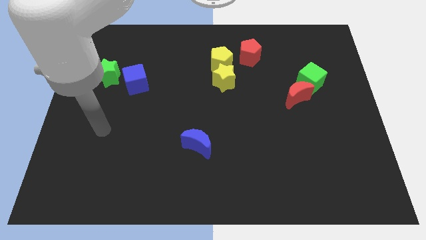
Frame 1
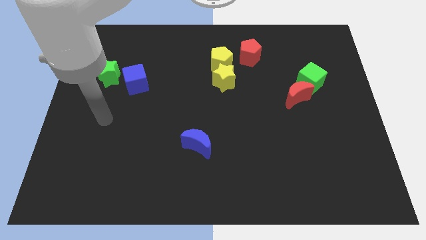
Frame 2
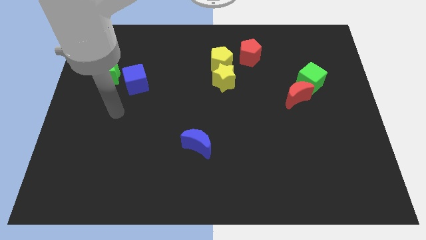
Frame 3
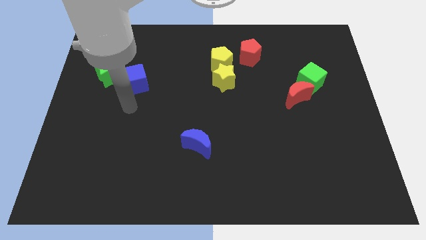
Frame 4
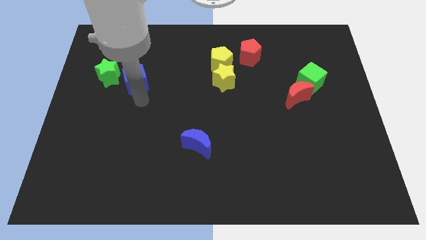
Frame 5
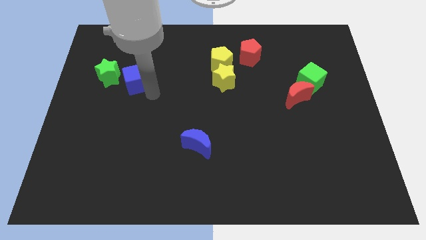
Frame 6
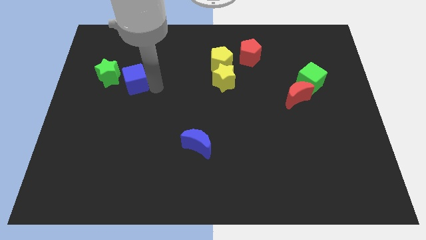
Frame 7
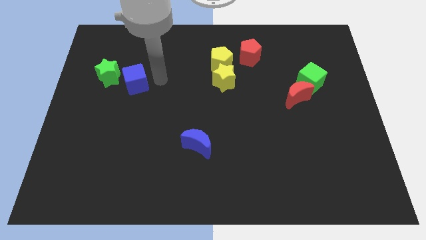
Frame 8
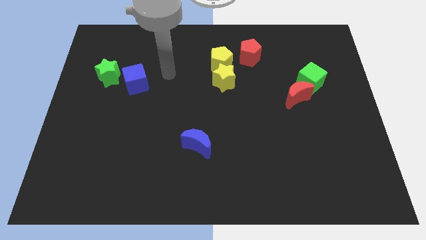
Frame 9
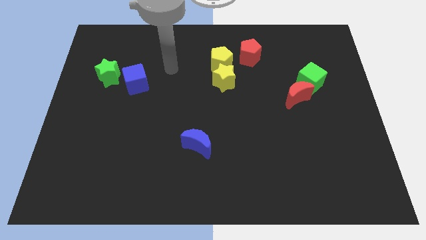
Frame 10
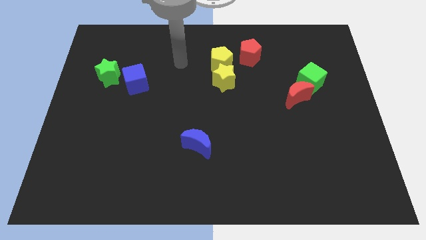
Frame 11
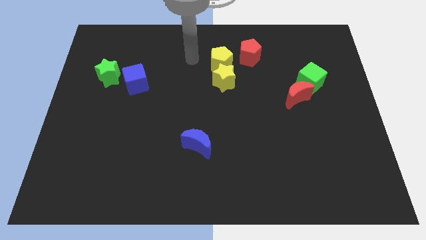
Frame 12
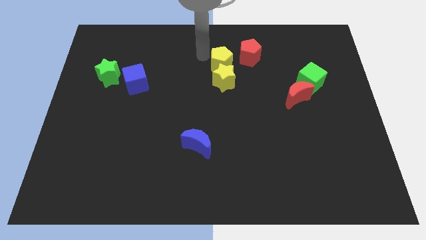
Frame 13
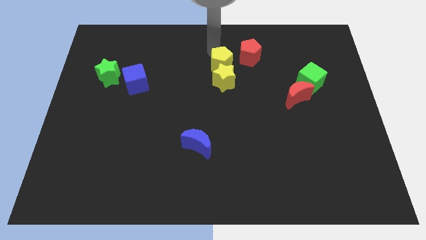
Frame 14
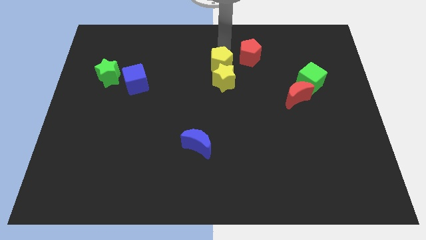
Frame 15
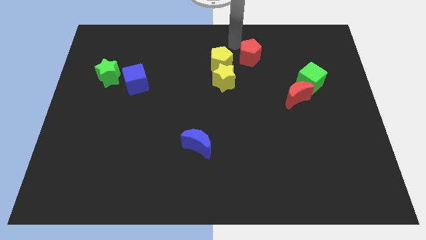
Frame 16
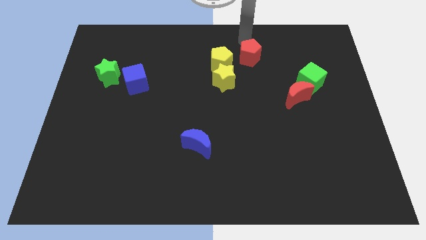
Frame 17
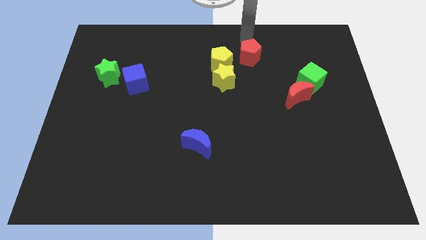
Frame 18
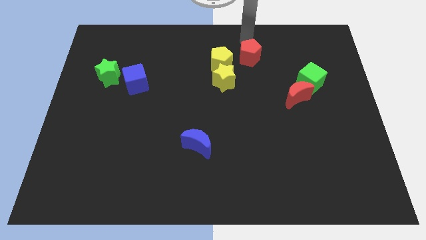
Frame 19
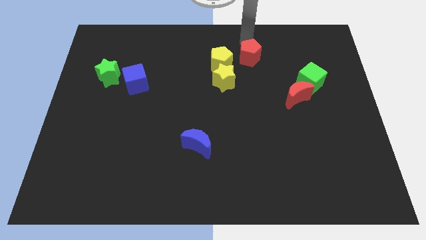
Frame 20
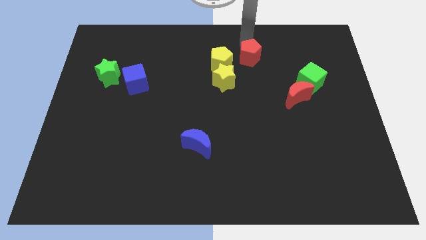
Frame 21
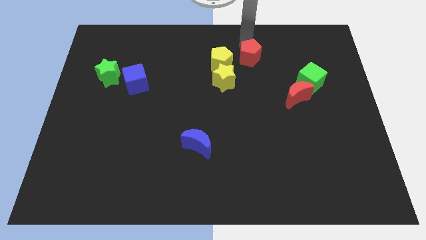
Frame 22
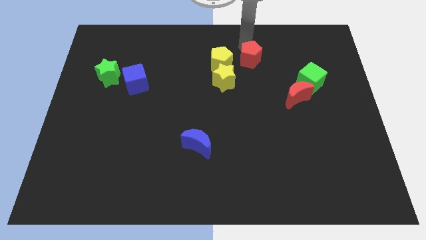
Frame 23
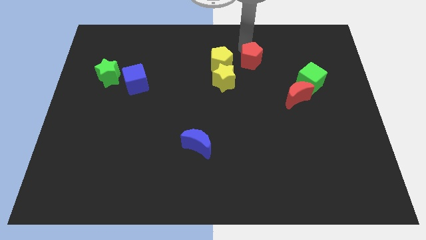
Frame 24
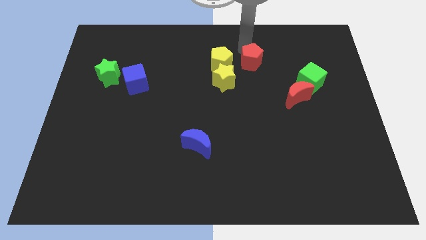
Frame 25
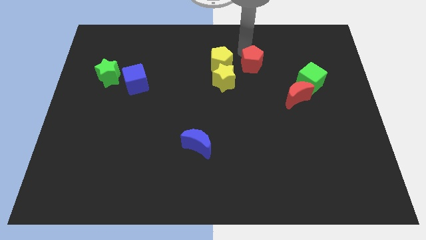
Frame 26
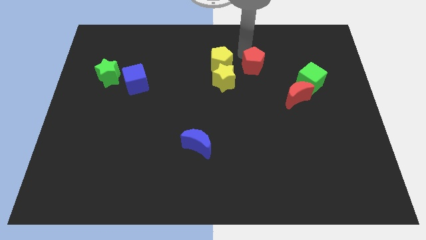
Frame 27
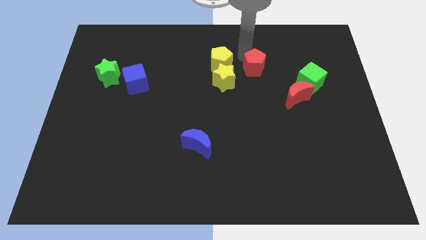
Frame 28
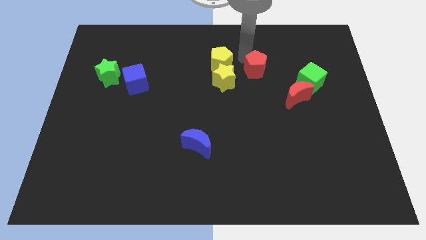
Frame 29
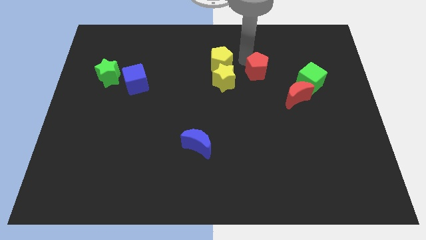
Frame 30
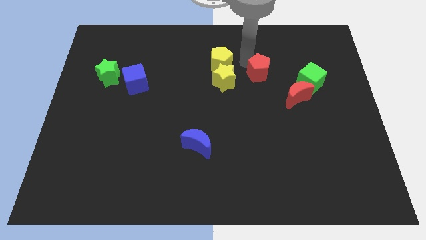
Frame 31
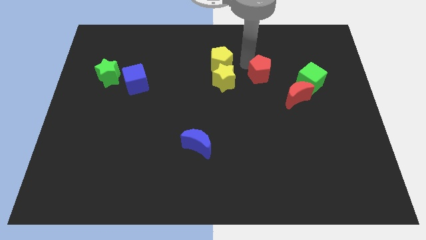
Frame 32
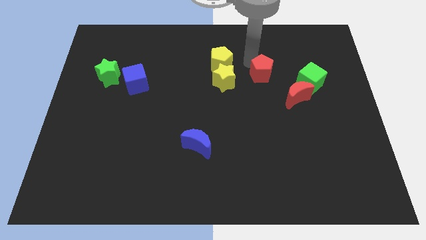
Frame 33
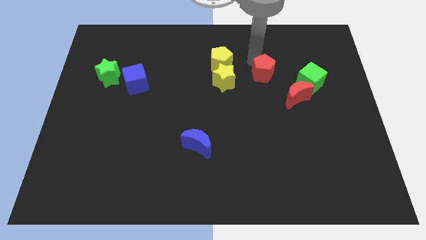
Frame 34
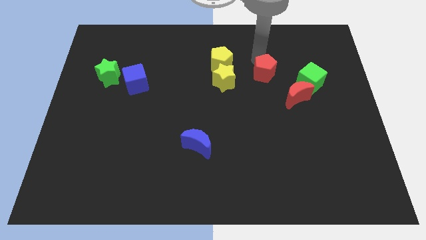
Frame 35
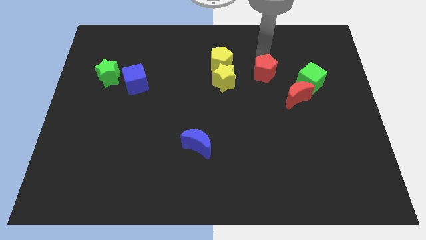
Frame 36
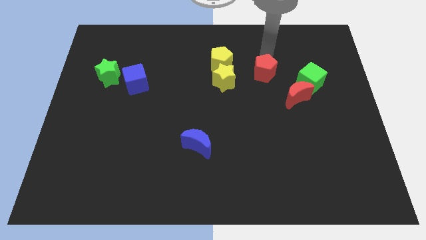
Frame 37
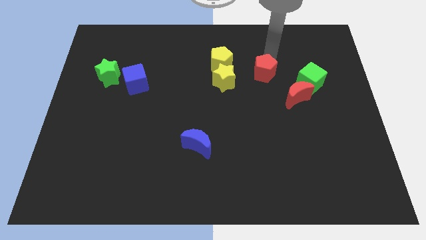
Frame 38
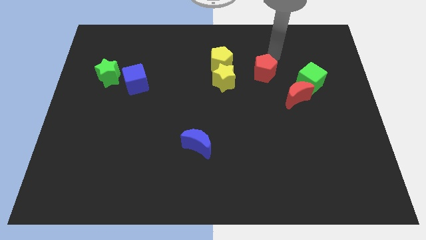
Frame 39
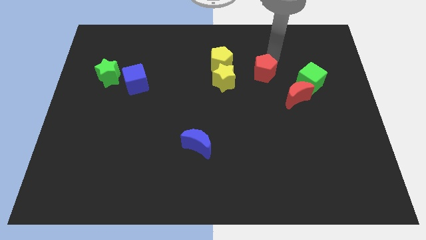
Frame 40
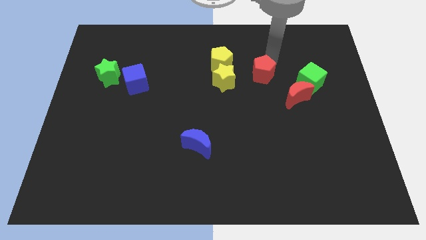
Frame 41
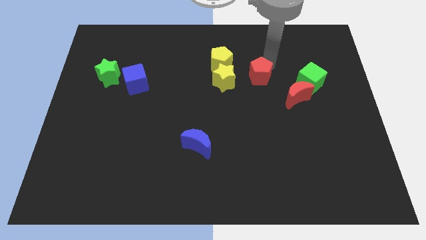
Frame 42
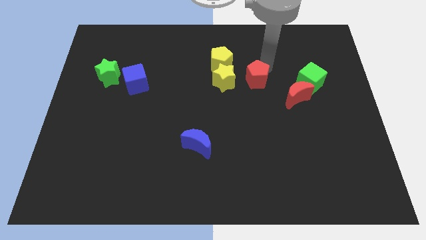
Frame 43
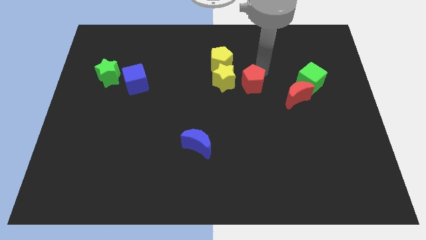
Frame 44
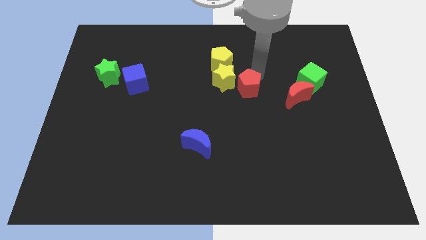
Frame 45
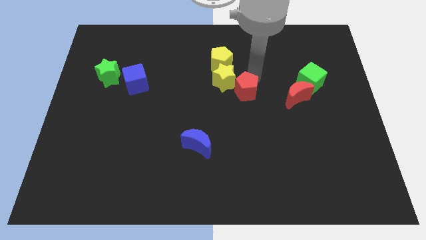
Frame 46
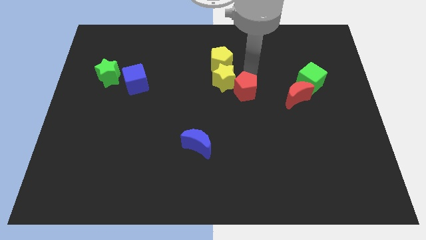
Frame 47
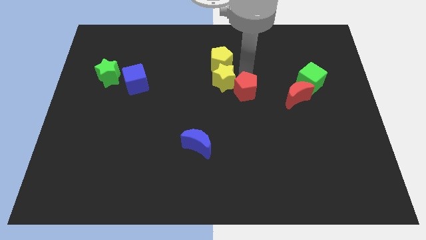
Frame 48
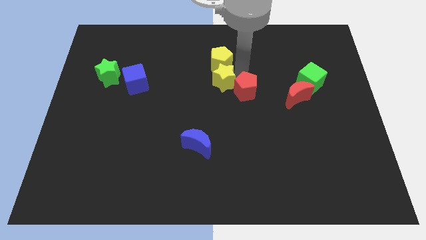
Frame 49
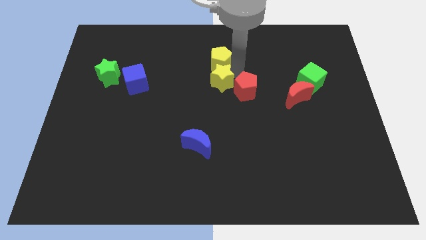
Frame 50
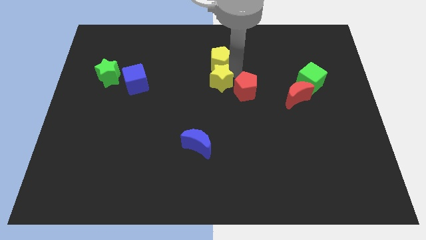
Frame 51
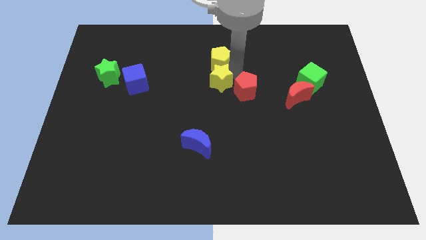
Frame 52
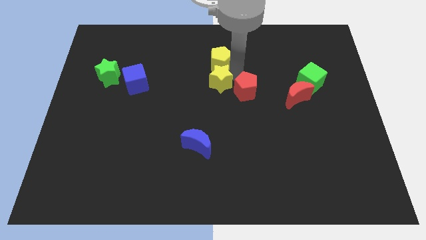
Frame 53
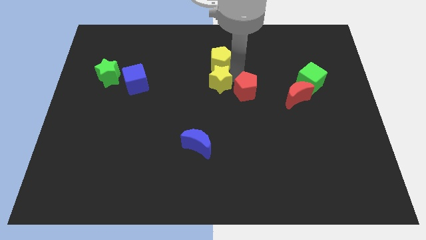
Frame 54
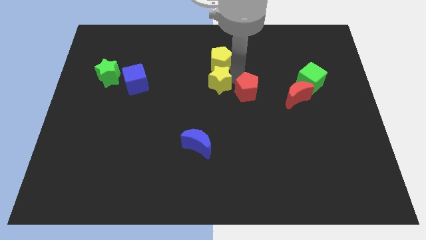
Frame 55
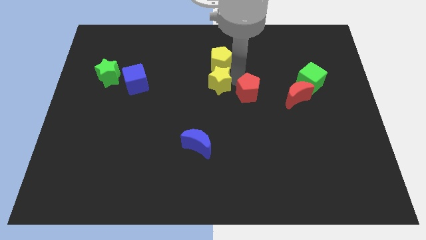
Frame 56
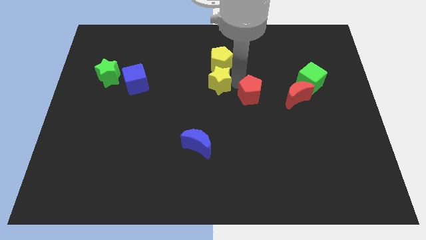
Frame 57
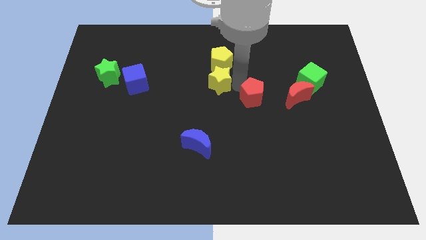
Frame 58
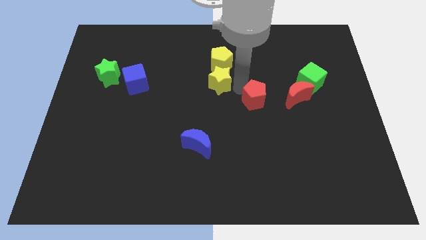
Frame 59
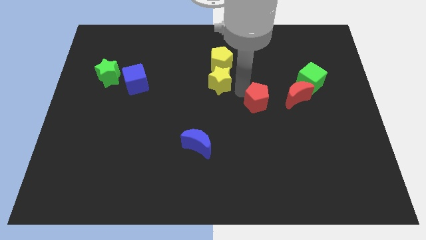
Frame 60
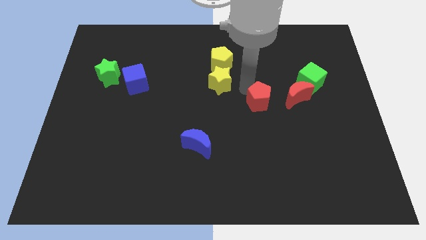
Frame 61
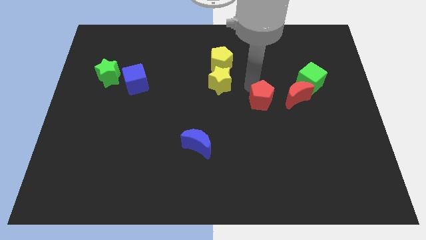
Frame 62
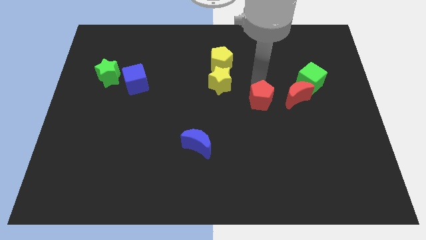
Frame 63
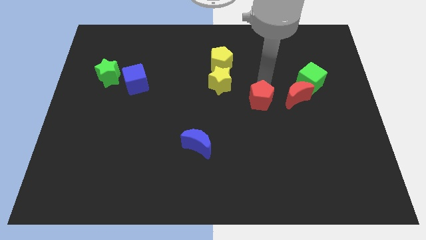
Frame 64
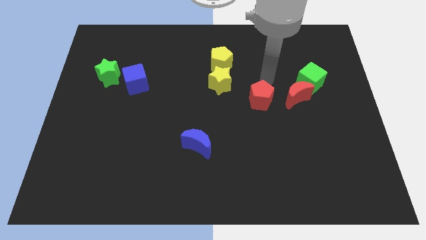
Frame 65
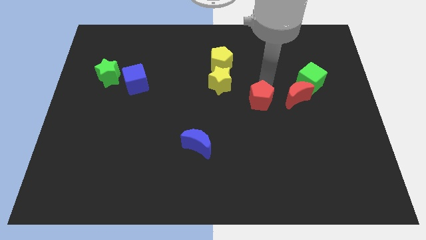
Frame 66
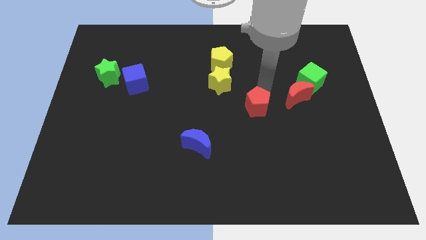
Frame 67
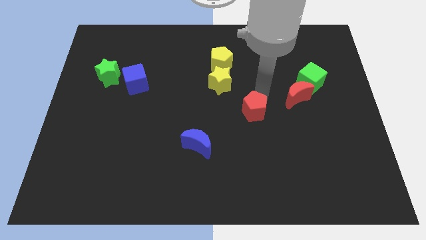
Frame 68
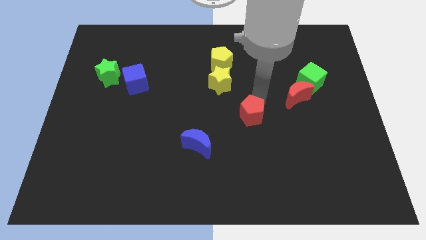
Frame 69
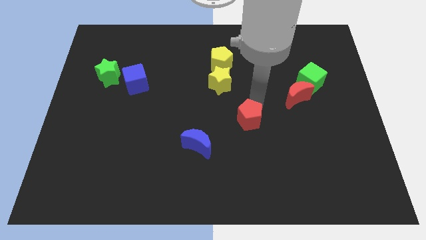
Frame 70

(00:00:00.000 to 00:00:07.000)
move the red pentagon downwards

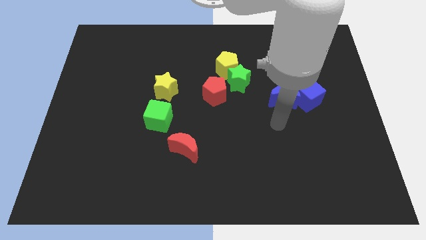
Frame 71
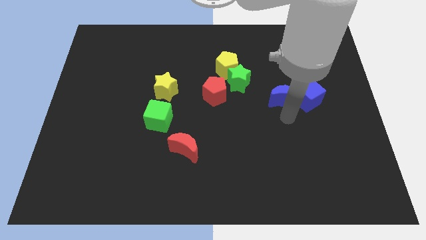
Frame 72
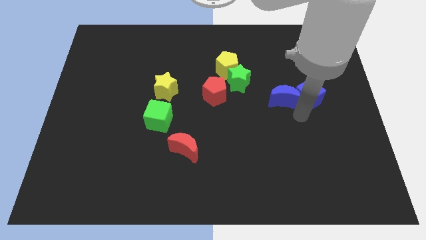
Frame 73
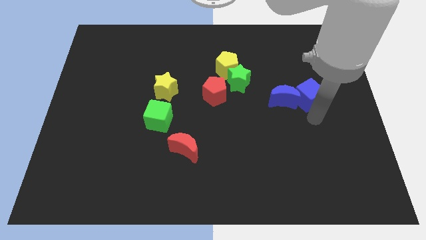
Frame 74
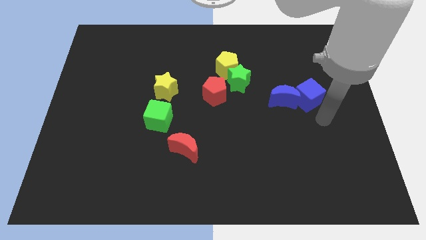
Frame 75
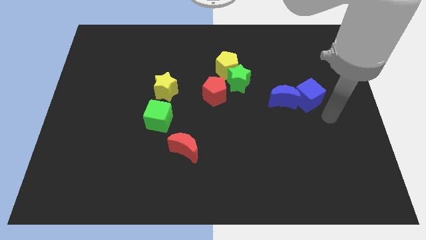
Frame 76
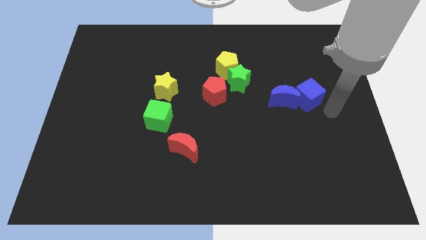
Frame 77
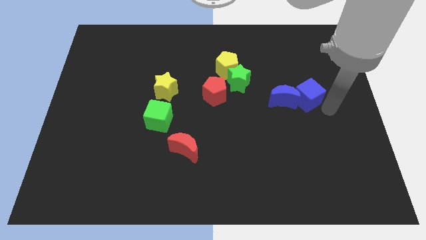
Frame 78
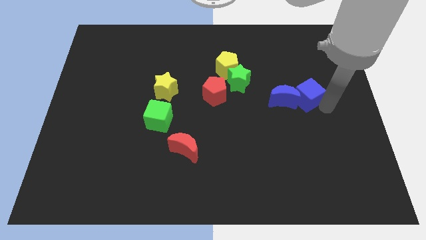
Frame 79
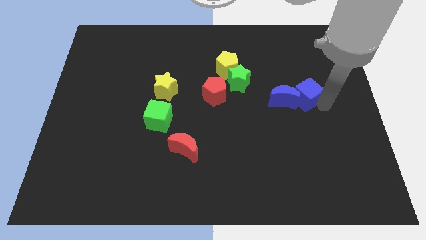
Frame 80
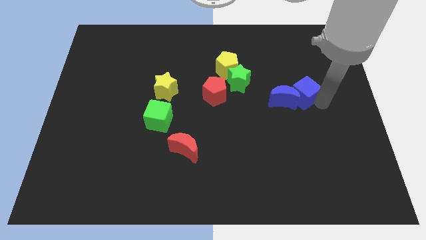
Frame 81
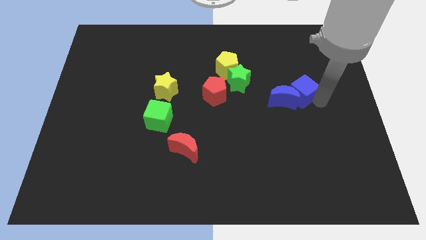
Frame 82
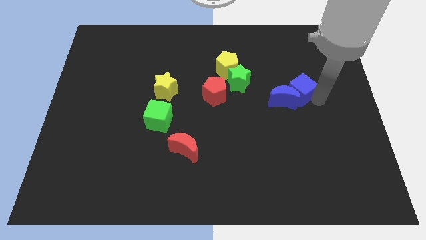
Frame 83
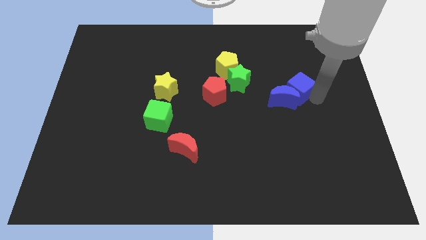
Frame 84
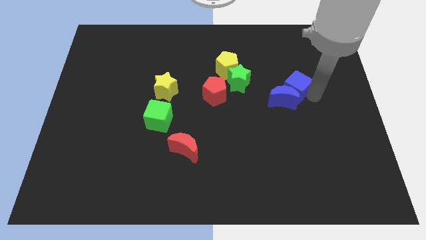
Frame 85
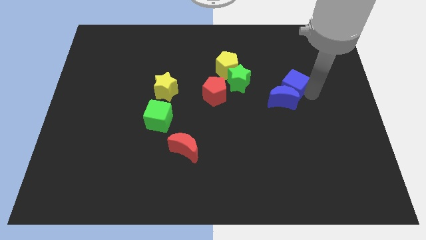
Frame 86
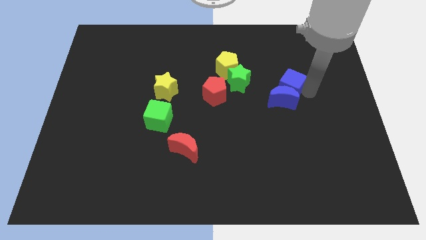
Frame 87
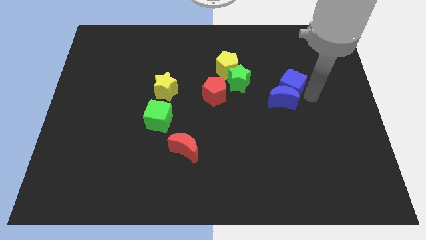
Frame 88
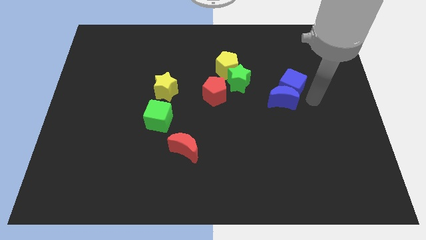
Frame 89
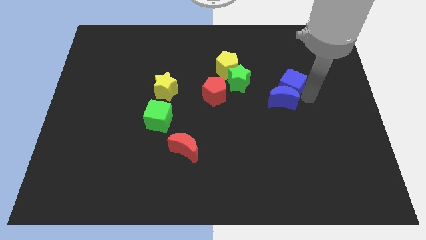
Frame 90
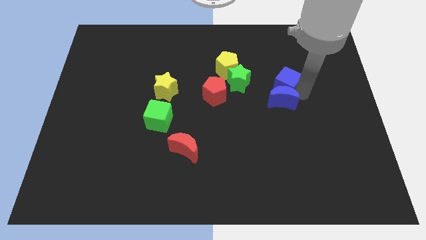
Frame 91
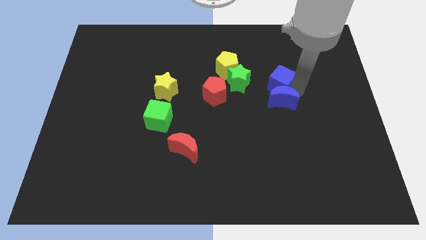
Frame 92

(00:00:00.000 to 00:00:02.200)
slide the blue cube slightly diagonally up and to the left
